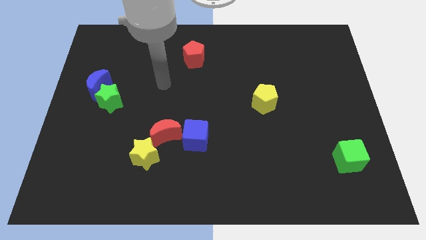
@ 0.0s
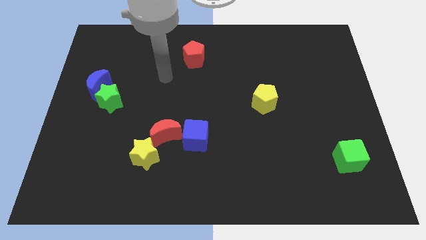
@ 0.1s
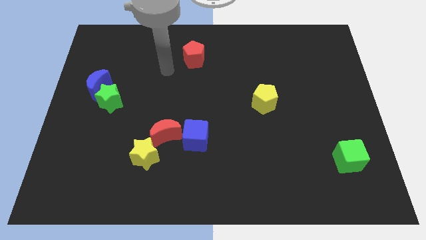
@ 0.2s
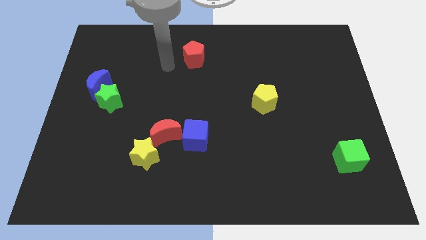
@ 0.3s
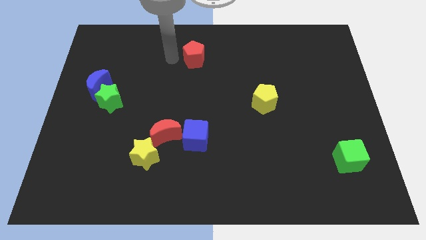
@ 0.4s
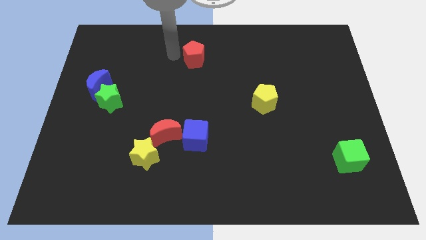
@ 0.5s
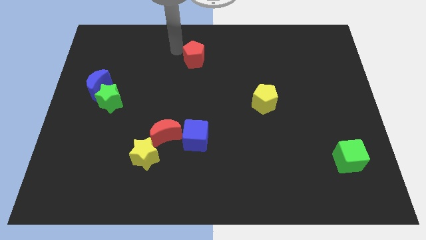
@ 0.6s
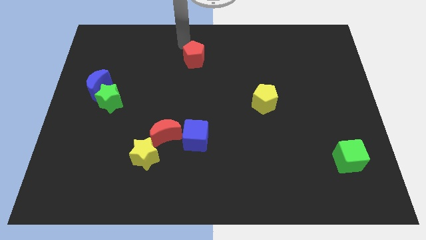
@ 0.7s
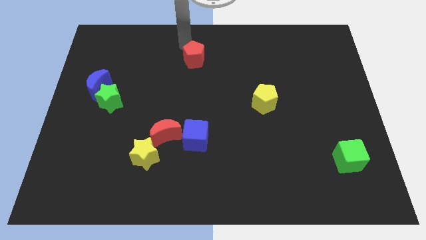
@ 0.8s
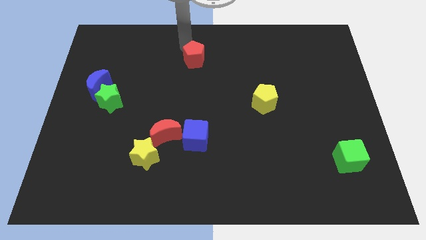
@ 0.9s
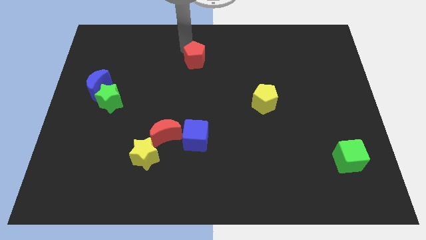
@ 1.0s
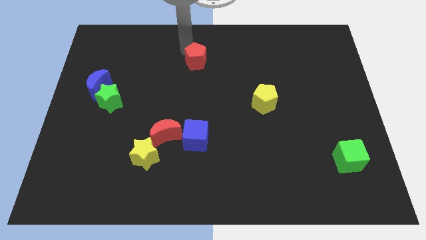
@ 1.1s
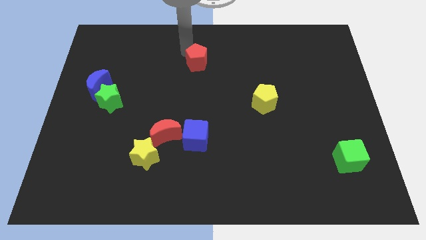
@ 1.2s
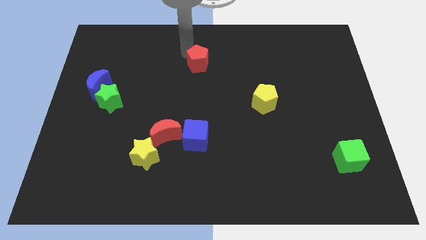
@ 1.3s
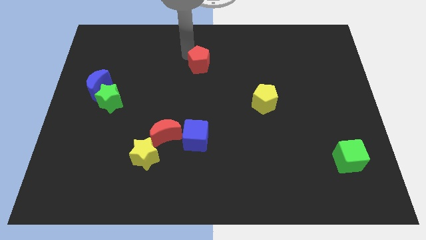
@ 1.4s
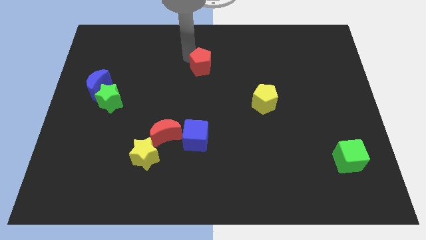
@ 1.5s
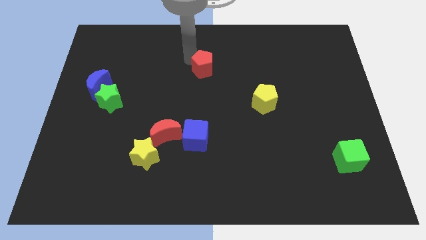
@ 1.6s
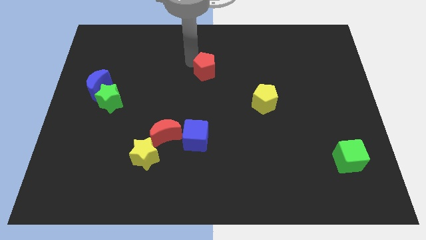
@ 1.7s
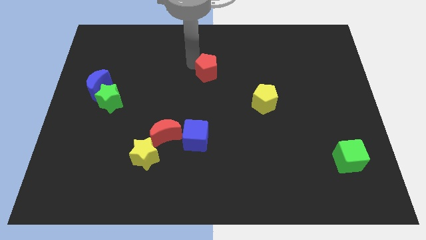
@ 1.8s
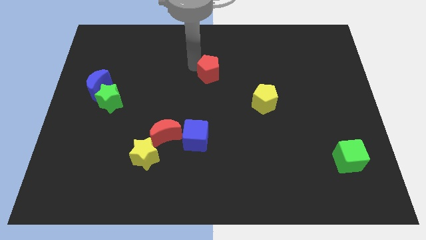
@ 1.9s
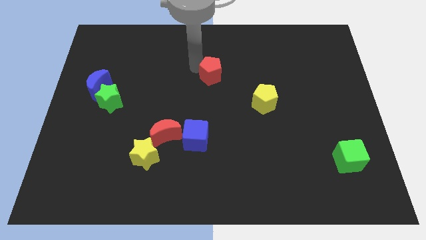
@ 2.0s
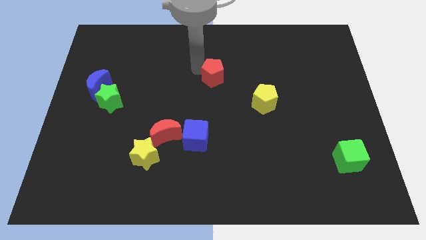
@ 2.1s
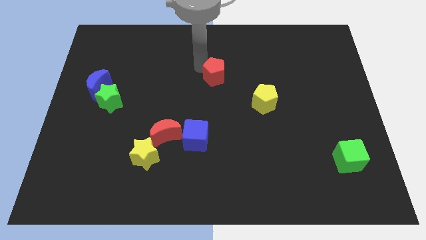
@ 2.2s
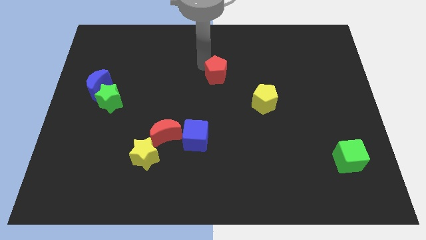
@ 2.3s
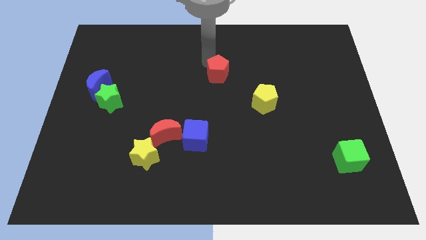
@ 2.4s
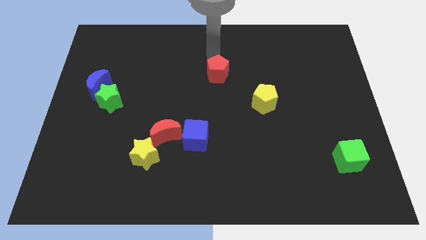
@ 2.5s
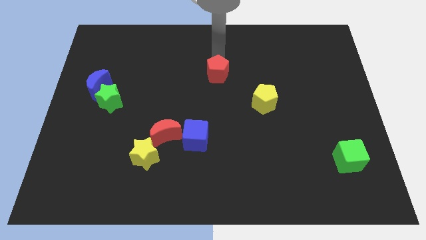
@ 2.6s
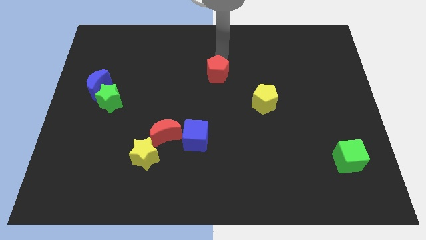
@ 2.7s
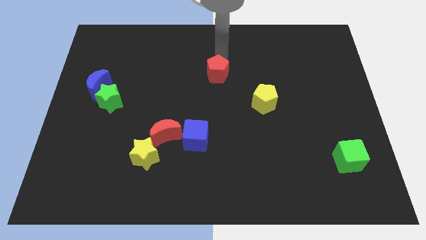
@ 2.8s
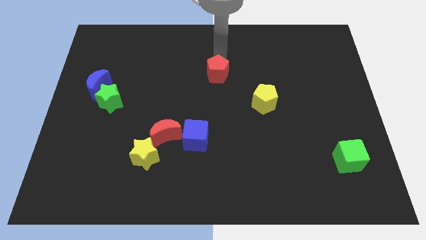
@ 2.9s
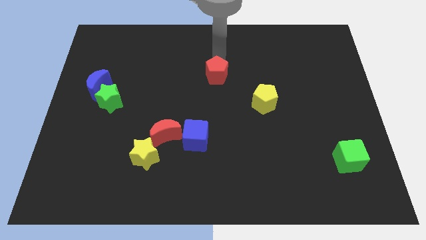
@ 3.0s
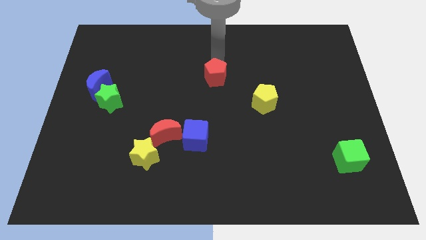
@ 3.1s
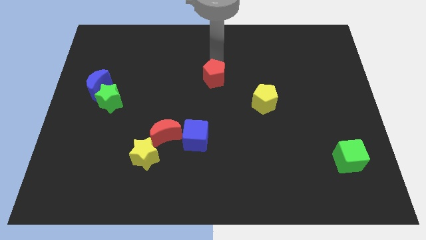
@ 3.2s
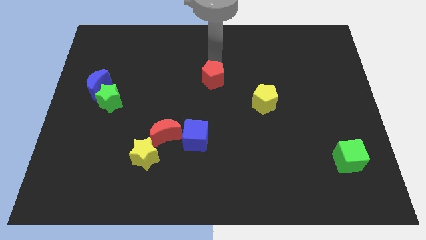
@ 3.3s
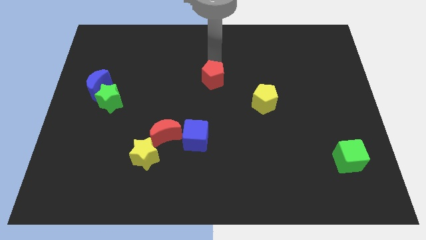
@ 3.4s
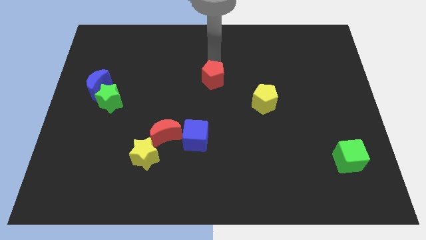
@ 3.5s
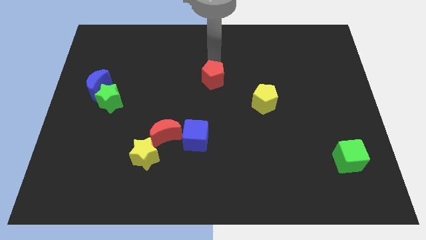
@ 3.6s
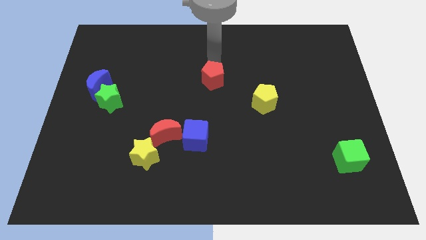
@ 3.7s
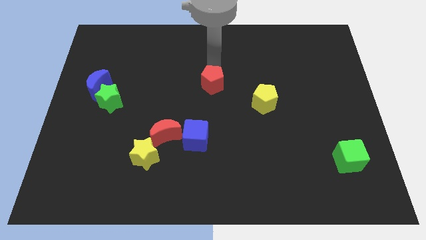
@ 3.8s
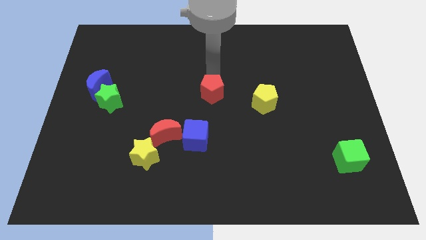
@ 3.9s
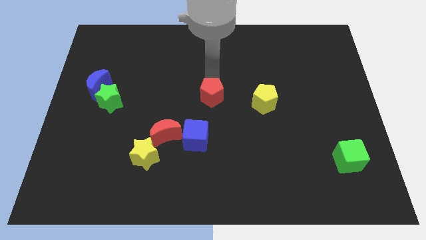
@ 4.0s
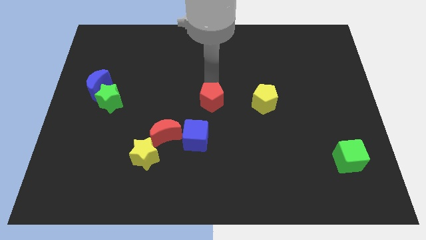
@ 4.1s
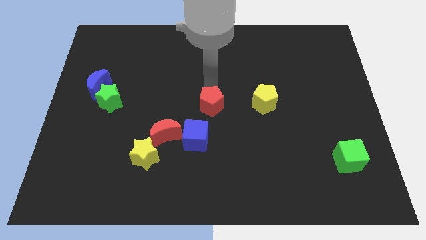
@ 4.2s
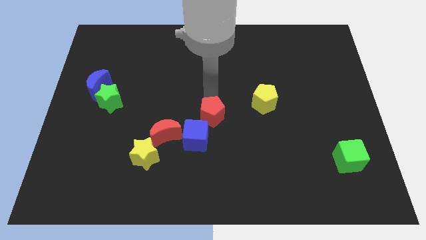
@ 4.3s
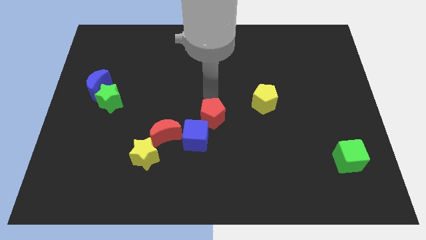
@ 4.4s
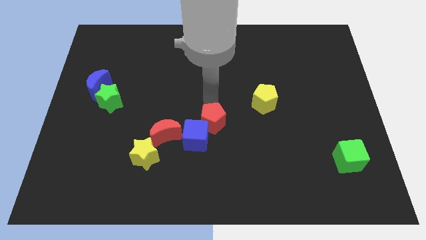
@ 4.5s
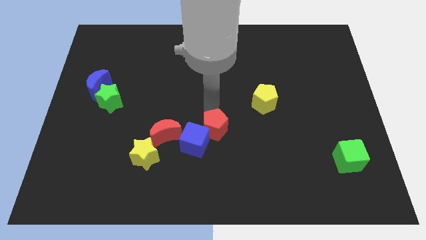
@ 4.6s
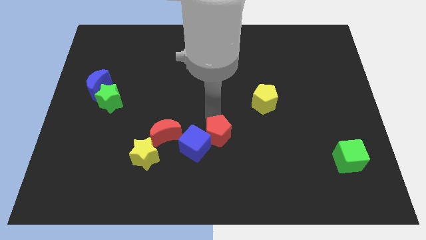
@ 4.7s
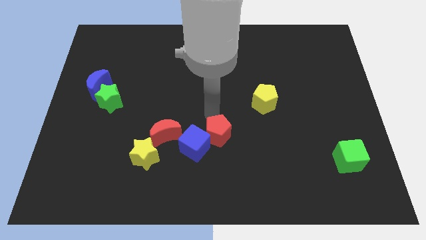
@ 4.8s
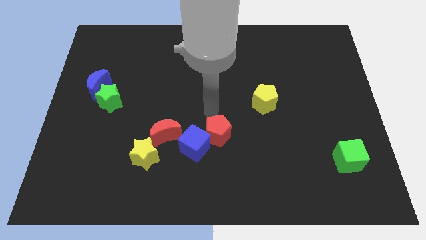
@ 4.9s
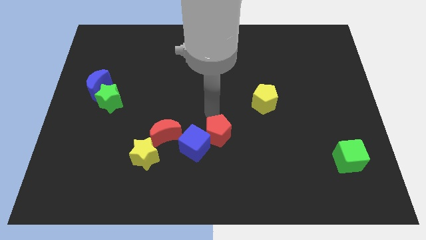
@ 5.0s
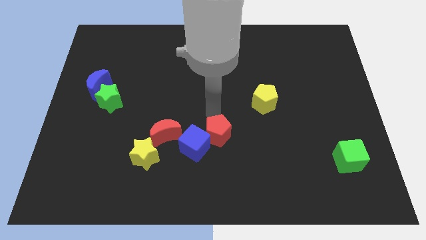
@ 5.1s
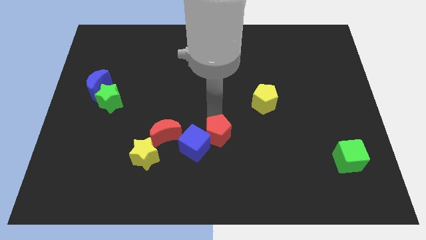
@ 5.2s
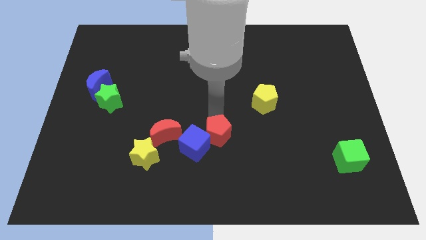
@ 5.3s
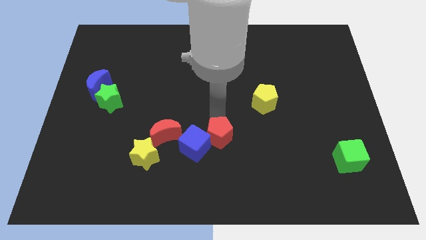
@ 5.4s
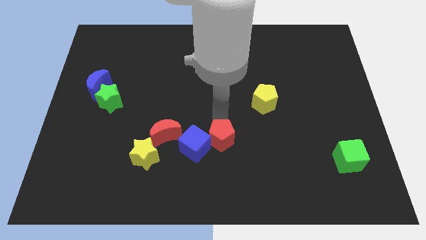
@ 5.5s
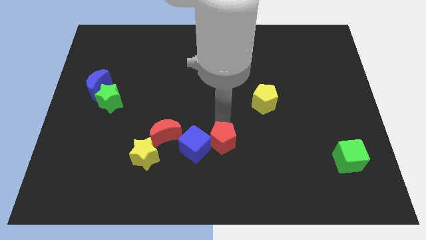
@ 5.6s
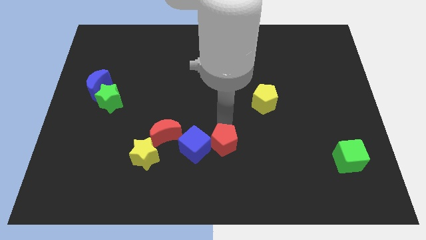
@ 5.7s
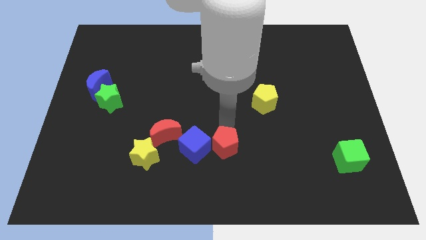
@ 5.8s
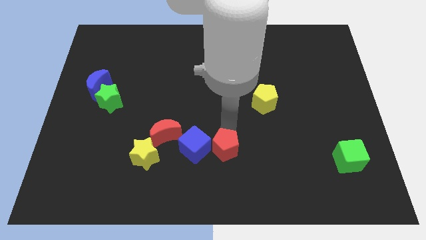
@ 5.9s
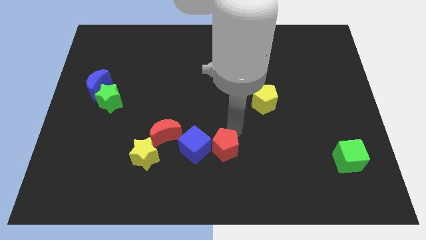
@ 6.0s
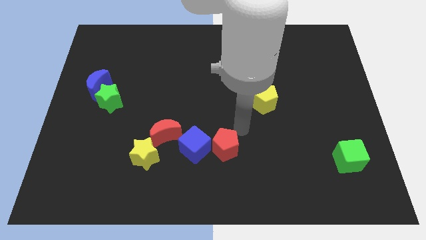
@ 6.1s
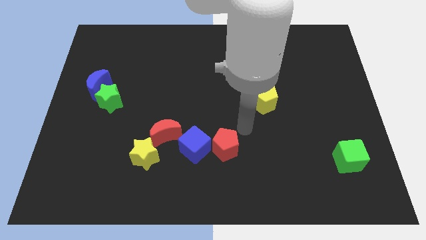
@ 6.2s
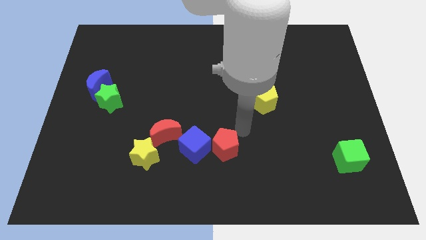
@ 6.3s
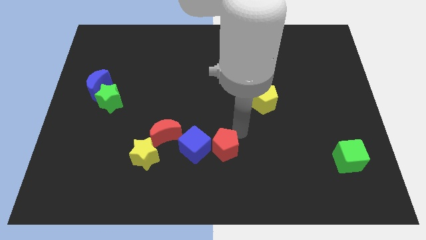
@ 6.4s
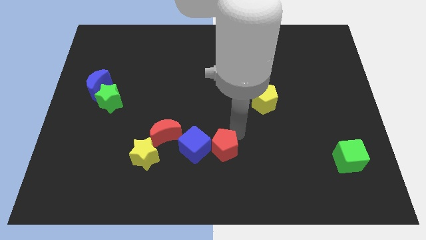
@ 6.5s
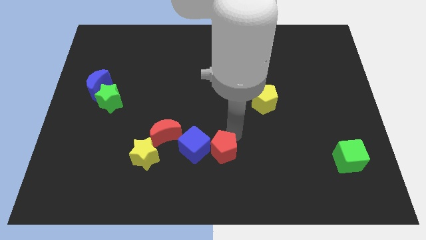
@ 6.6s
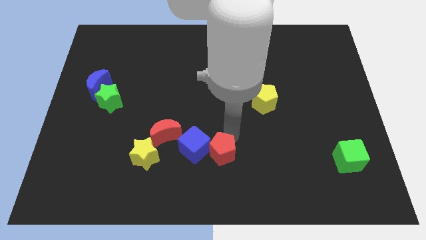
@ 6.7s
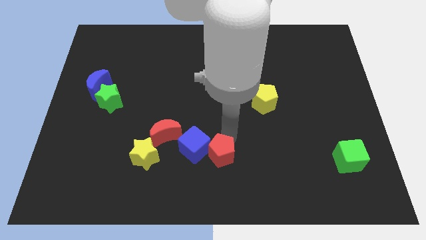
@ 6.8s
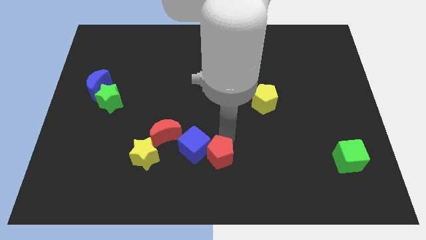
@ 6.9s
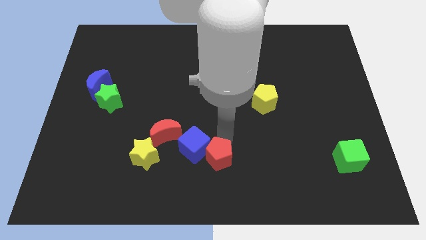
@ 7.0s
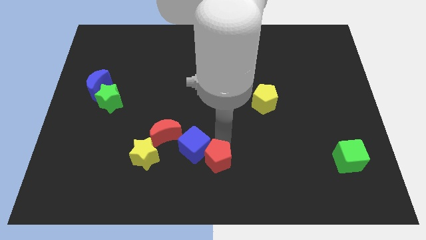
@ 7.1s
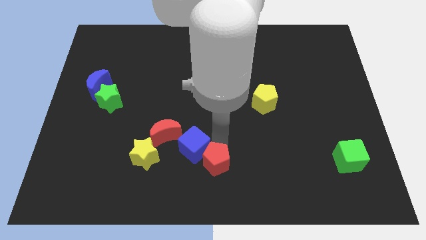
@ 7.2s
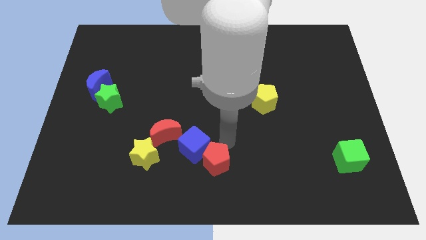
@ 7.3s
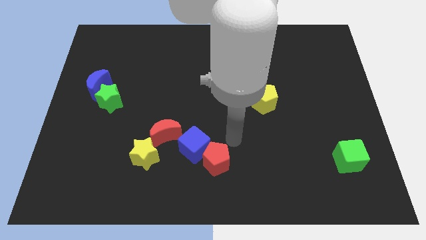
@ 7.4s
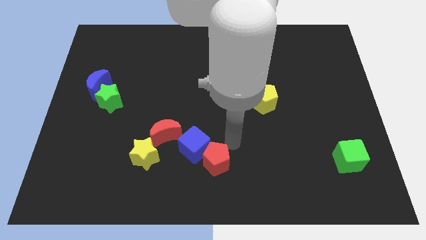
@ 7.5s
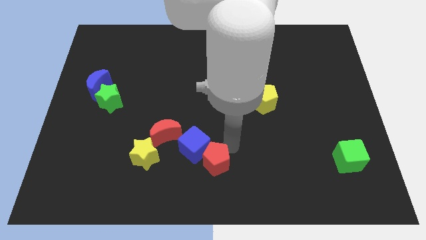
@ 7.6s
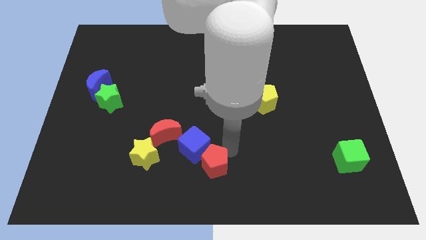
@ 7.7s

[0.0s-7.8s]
put the red pentagon to the bottom of the blue cube
